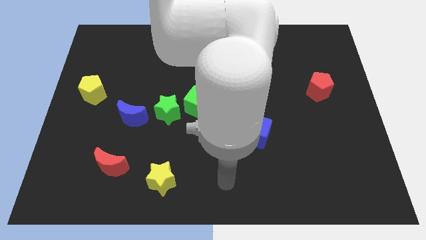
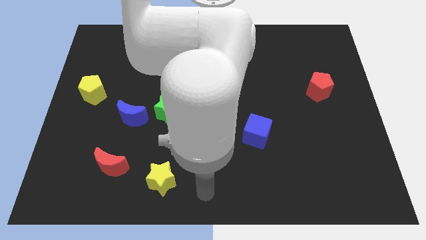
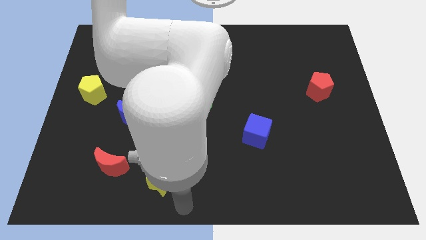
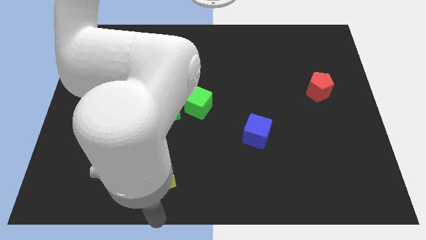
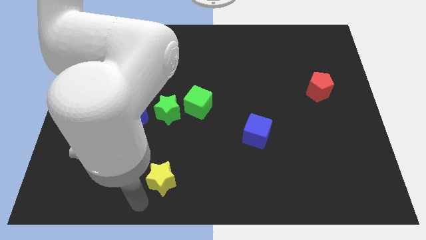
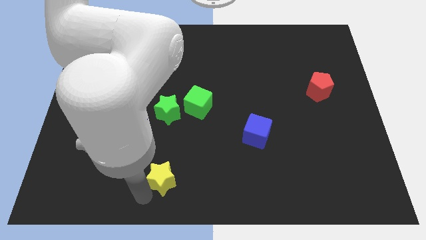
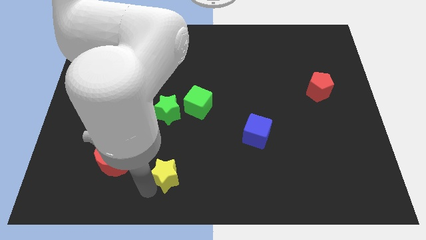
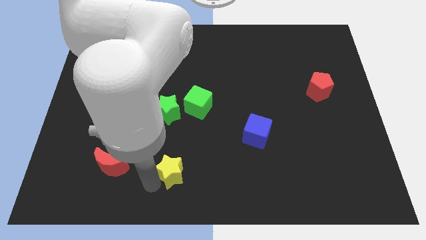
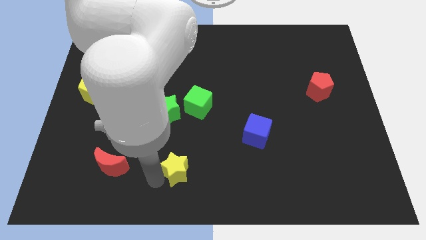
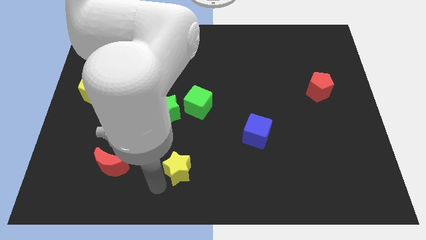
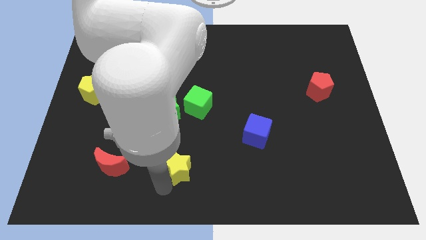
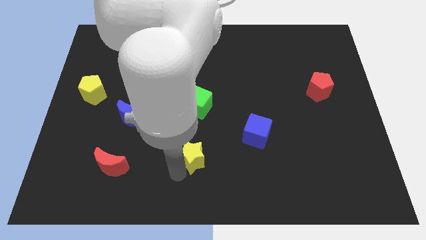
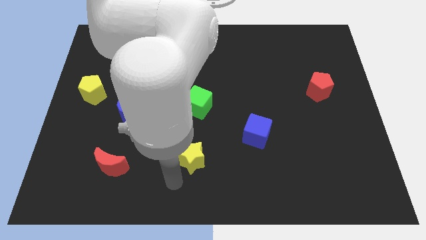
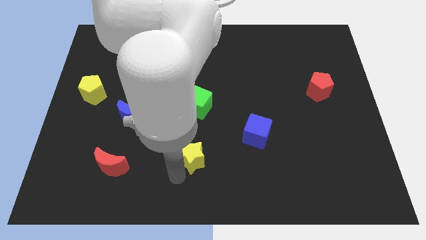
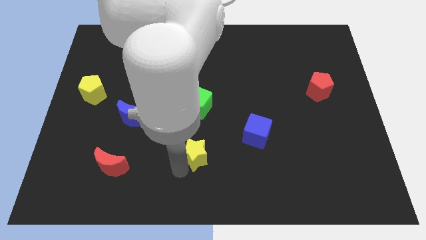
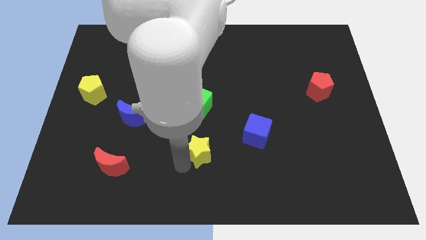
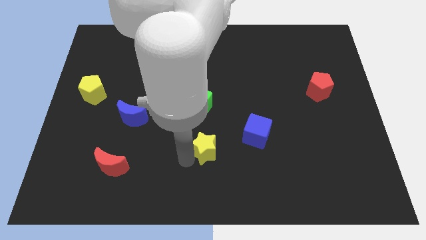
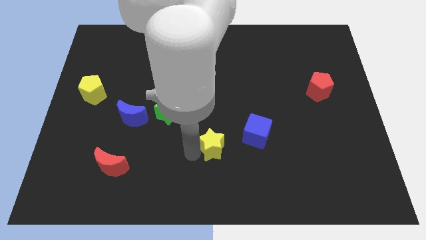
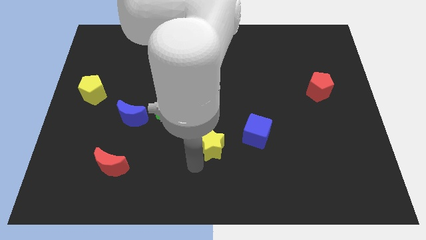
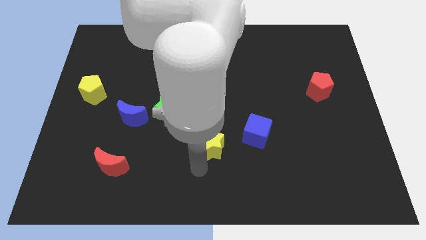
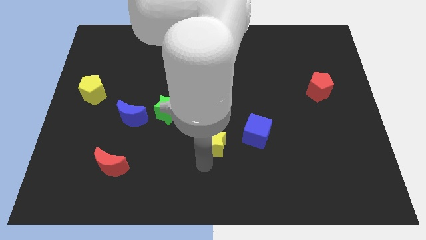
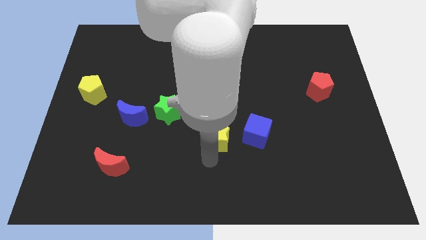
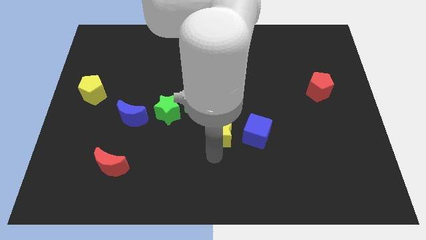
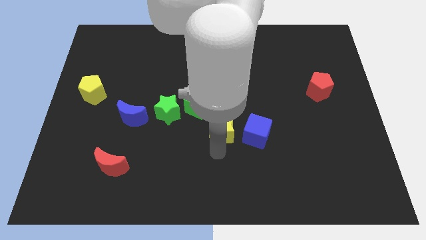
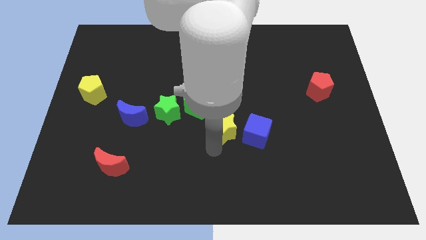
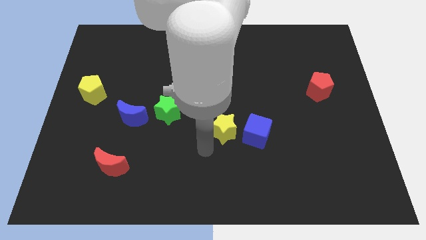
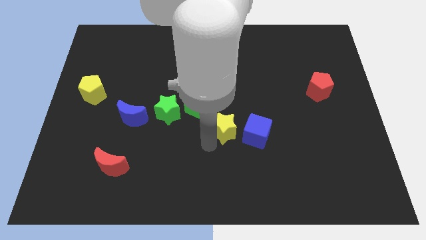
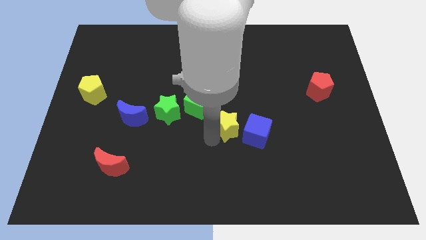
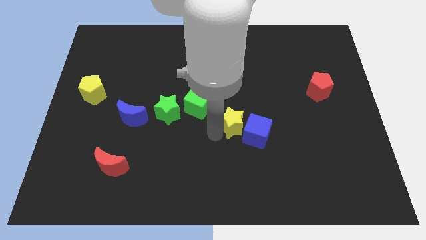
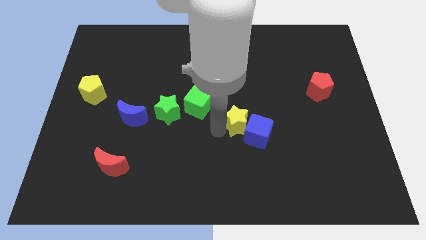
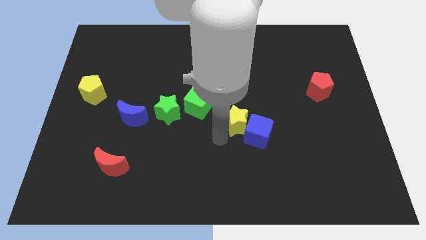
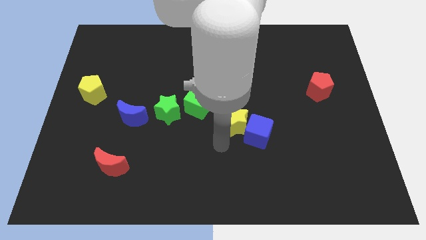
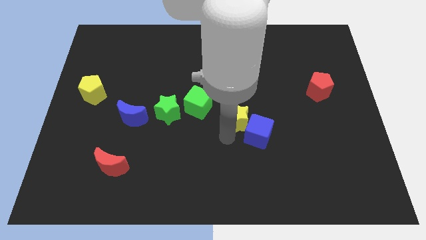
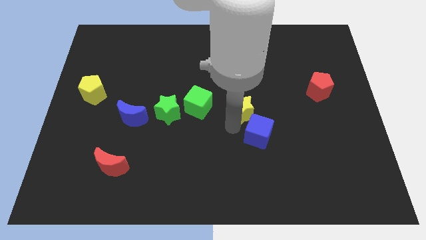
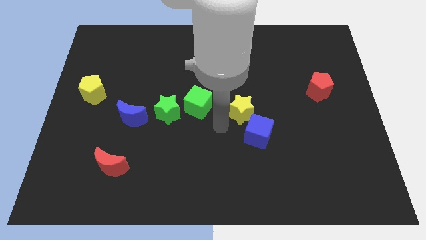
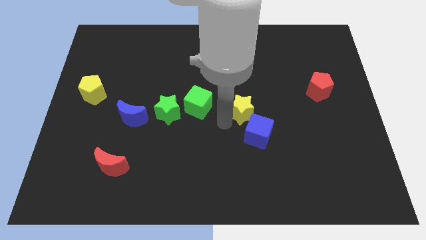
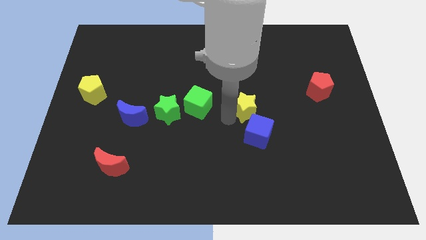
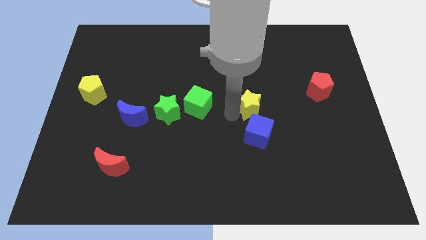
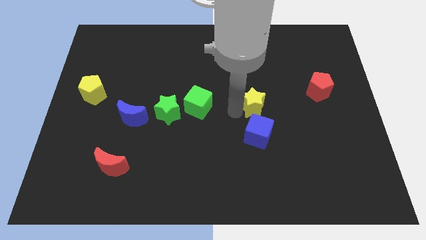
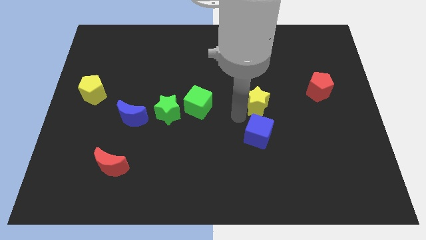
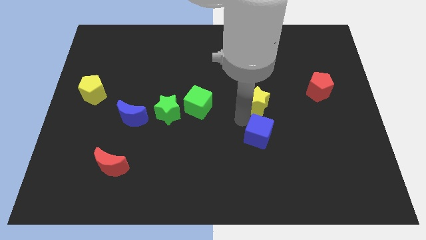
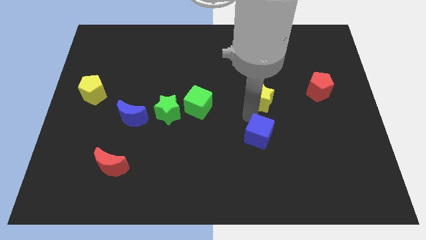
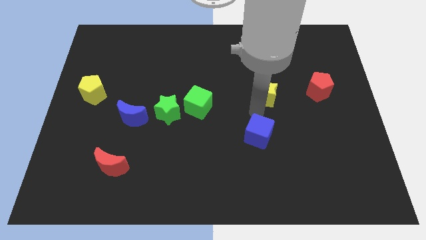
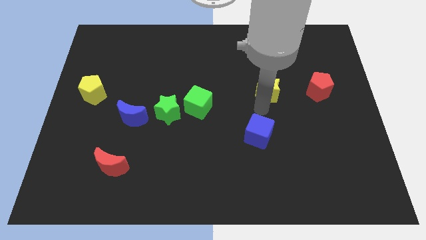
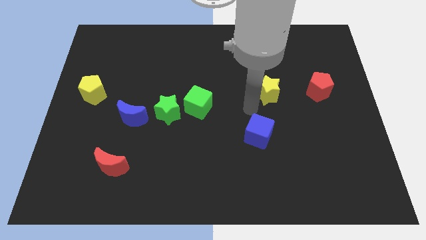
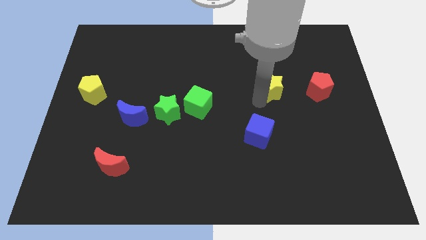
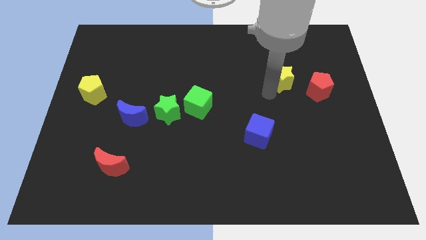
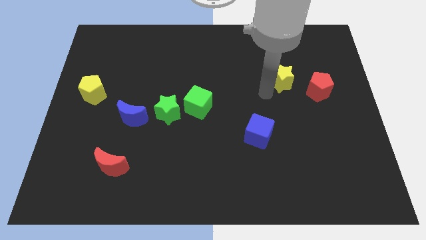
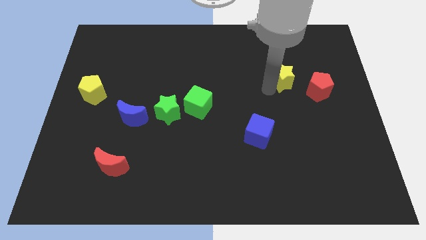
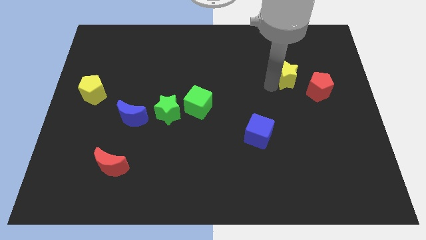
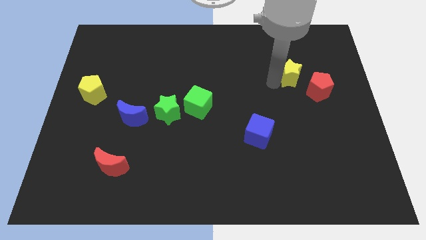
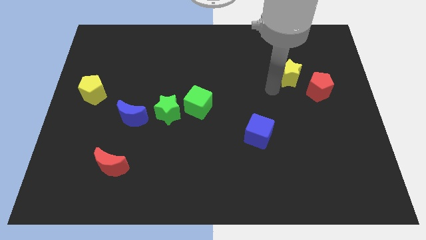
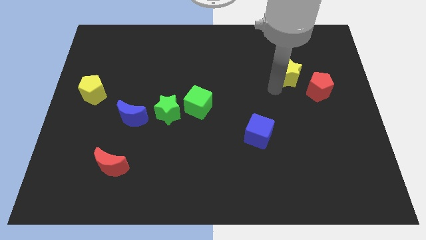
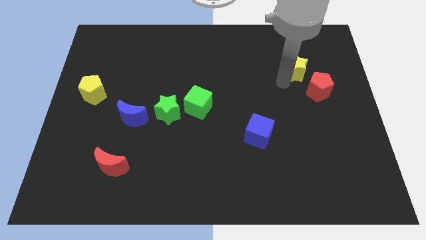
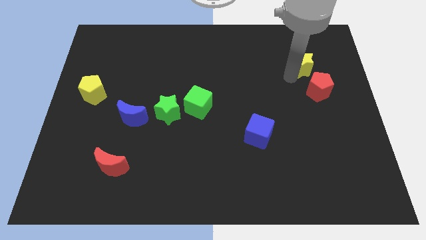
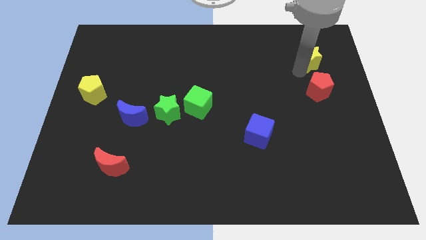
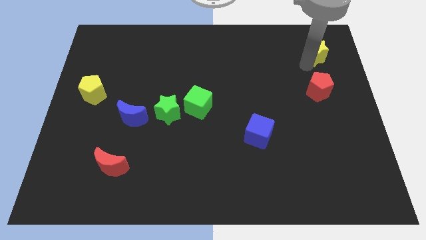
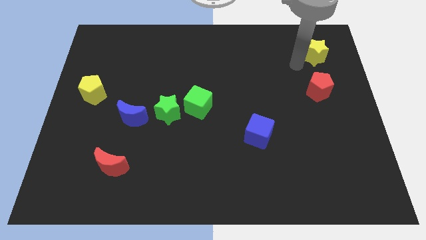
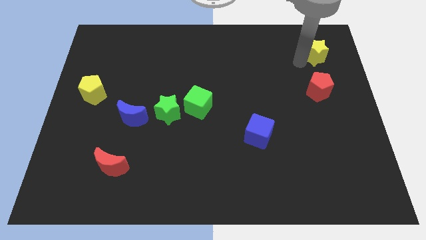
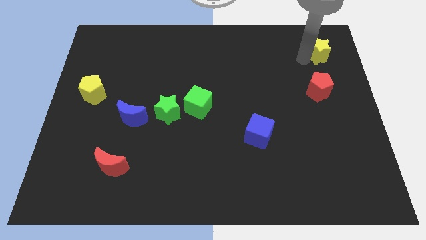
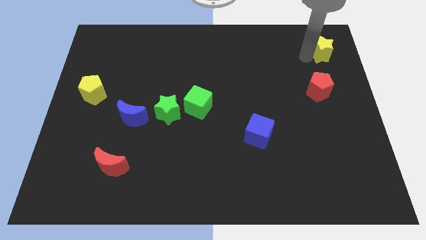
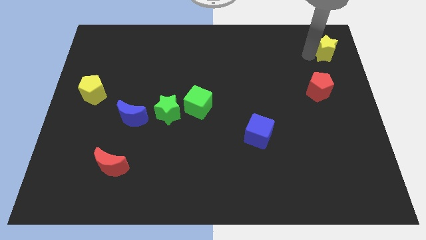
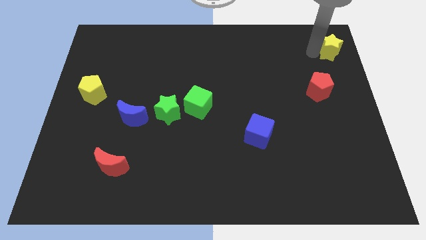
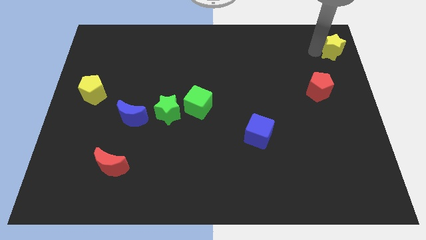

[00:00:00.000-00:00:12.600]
put the yellow star to the top right corner
